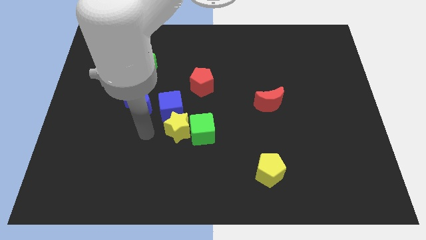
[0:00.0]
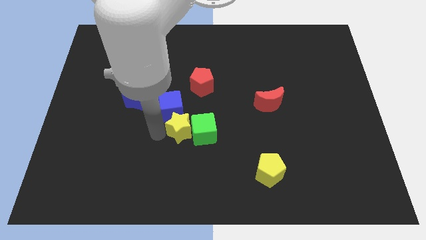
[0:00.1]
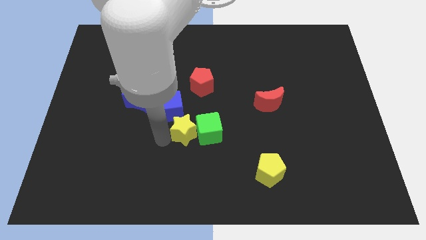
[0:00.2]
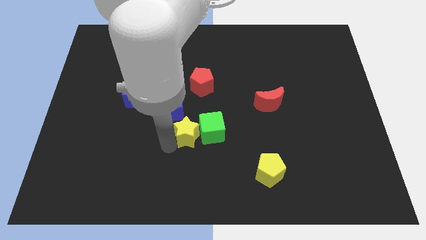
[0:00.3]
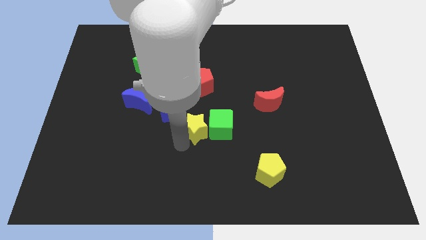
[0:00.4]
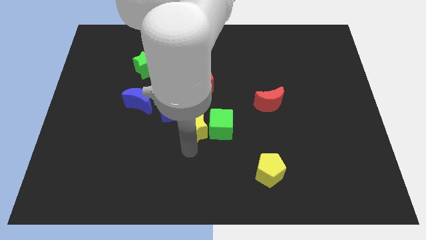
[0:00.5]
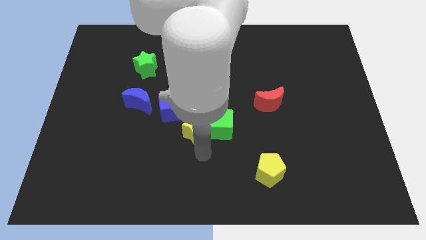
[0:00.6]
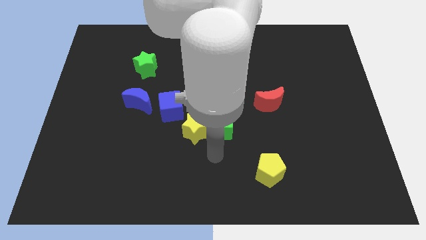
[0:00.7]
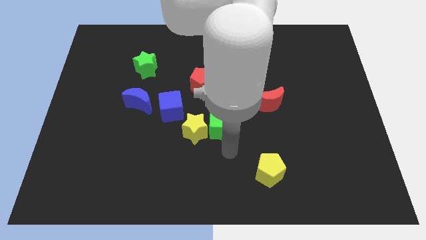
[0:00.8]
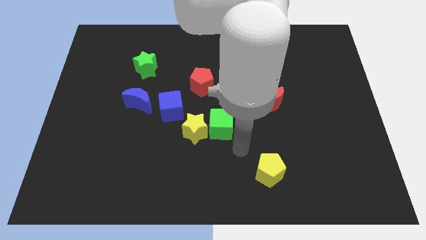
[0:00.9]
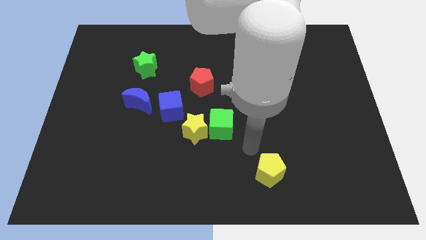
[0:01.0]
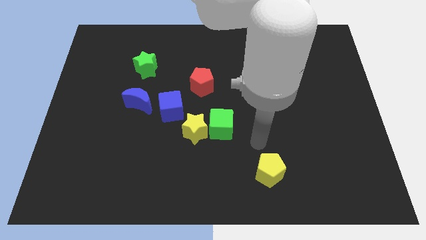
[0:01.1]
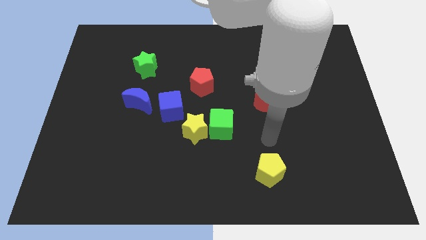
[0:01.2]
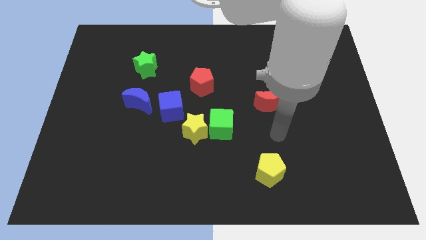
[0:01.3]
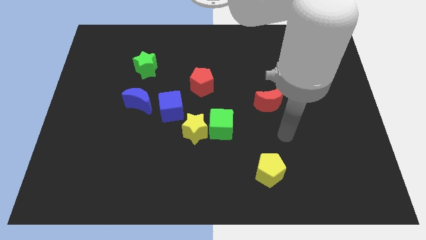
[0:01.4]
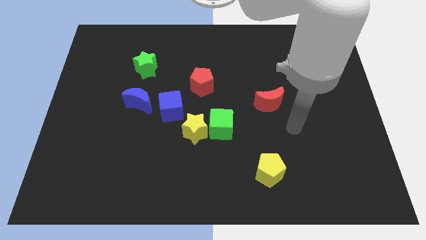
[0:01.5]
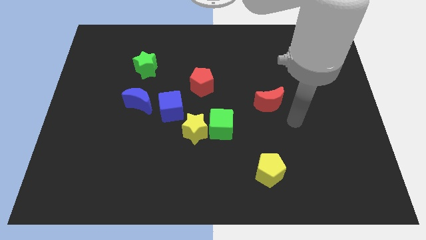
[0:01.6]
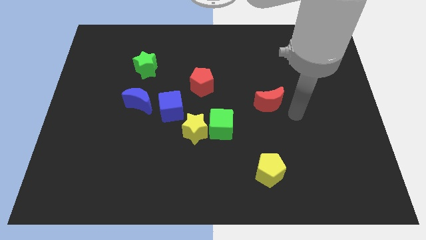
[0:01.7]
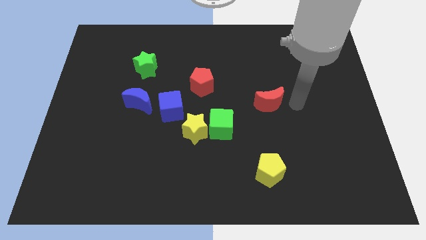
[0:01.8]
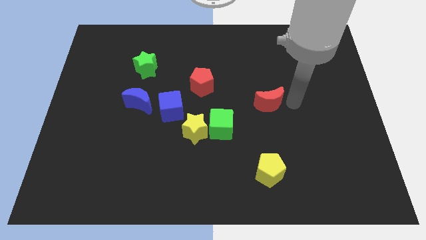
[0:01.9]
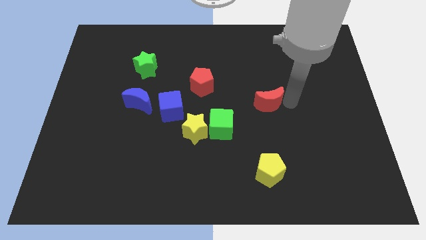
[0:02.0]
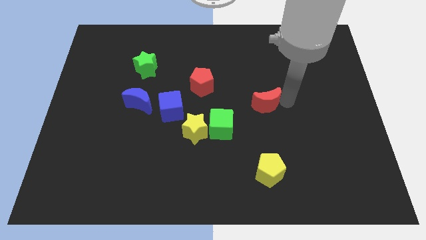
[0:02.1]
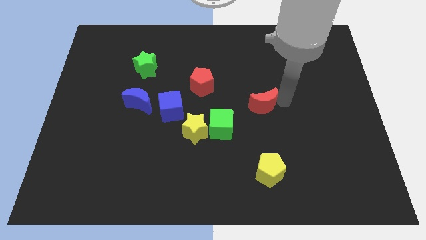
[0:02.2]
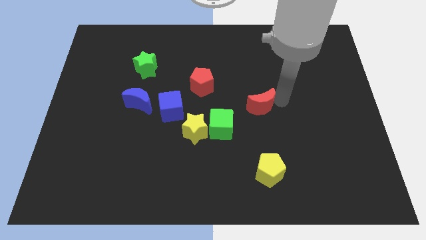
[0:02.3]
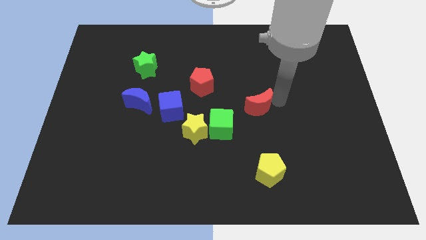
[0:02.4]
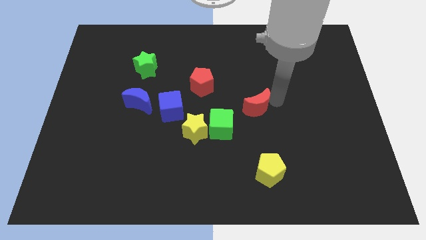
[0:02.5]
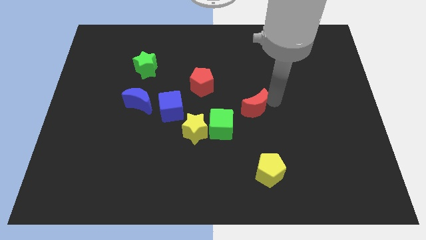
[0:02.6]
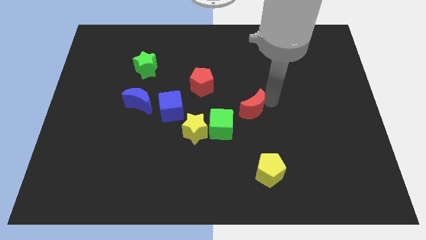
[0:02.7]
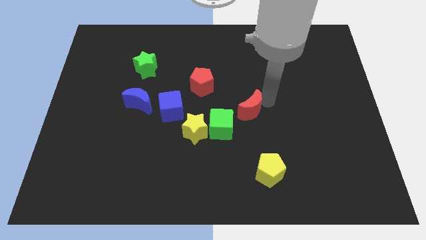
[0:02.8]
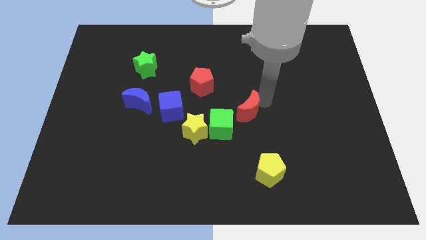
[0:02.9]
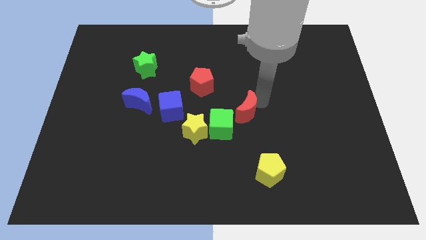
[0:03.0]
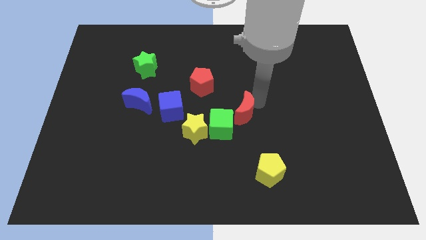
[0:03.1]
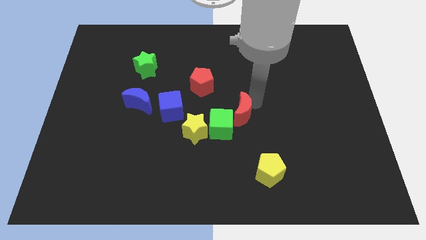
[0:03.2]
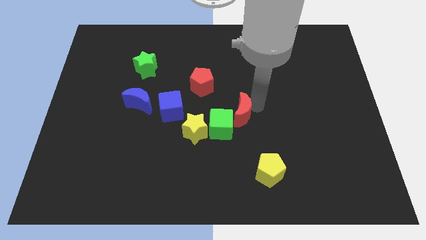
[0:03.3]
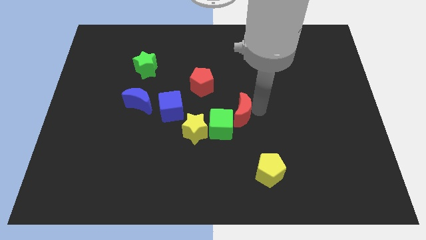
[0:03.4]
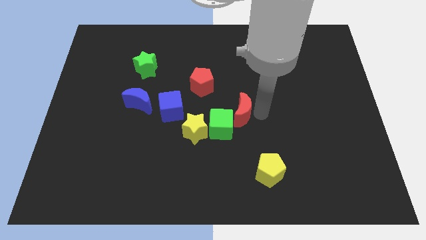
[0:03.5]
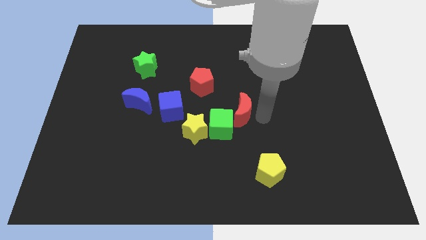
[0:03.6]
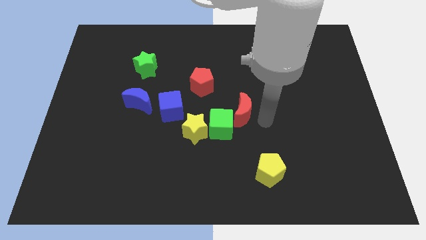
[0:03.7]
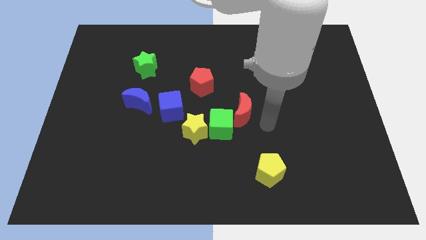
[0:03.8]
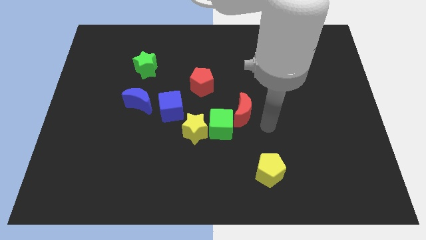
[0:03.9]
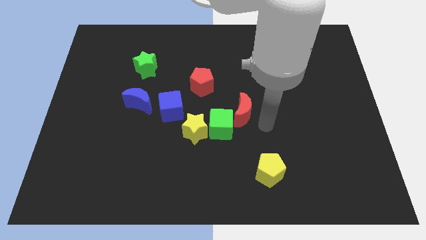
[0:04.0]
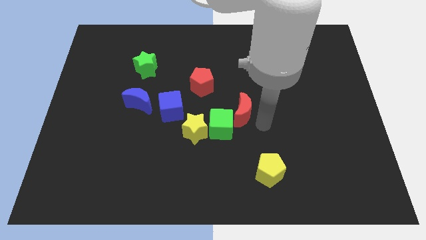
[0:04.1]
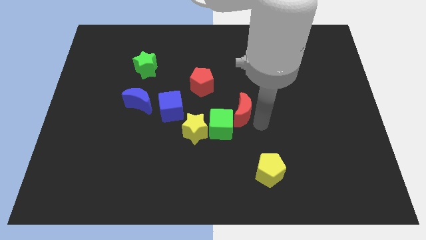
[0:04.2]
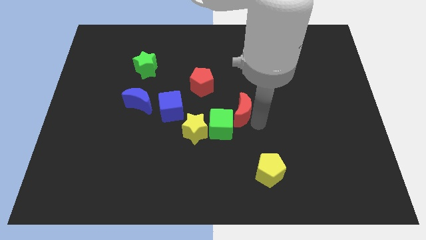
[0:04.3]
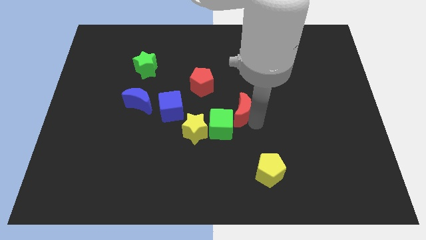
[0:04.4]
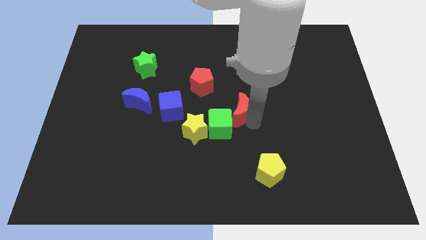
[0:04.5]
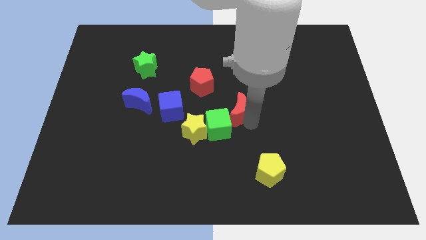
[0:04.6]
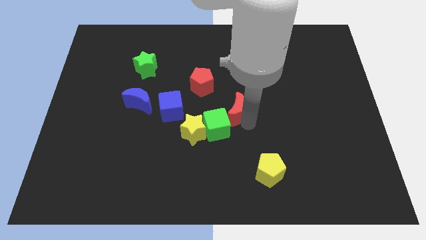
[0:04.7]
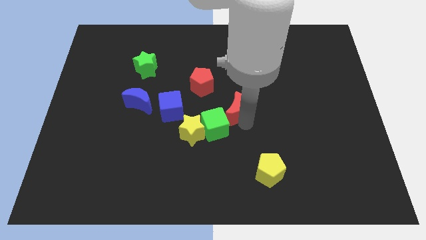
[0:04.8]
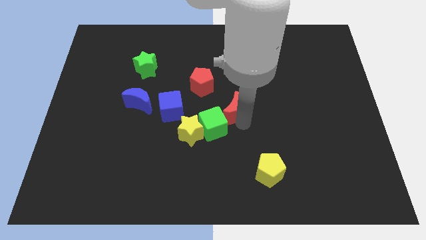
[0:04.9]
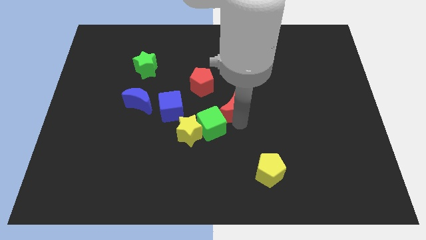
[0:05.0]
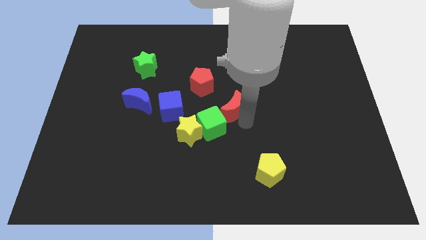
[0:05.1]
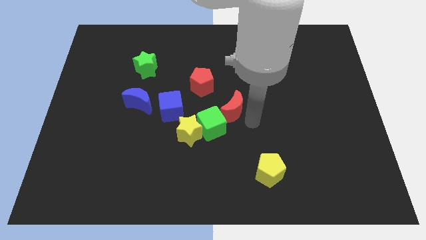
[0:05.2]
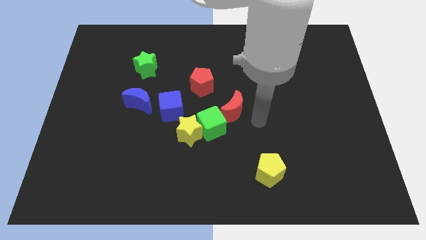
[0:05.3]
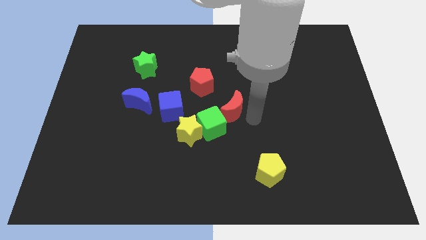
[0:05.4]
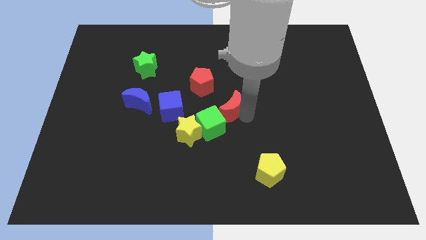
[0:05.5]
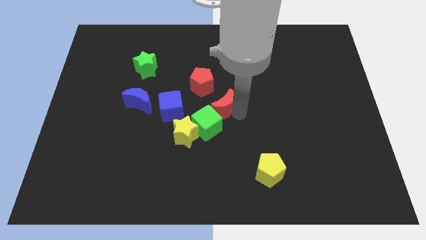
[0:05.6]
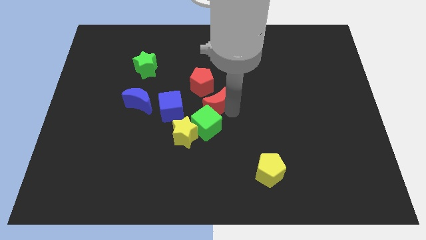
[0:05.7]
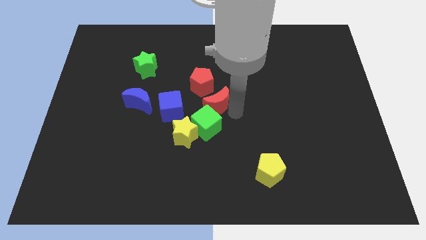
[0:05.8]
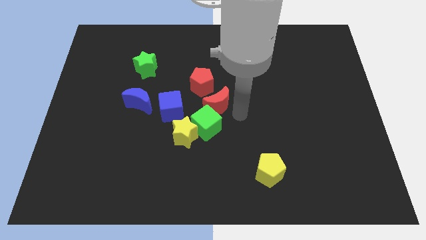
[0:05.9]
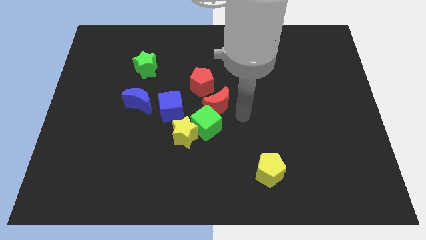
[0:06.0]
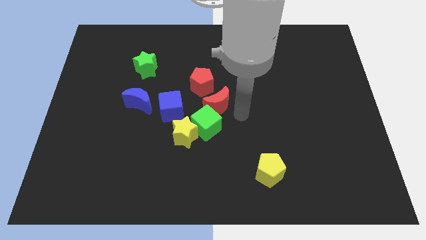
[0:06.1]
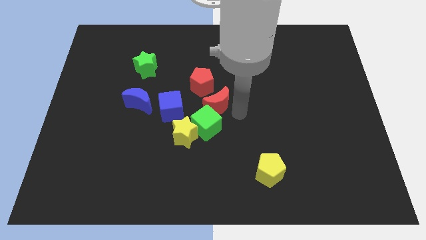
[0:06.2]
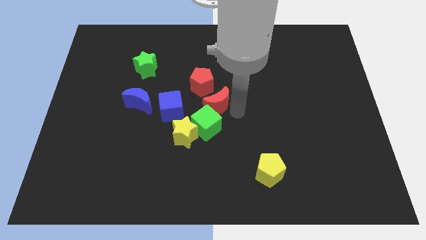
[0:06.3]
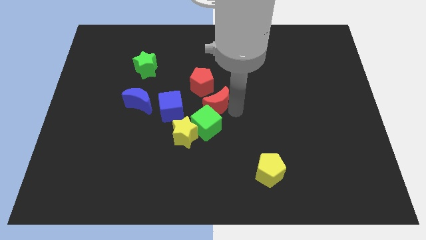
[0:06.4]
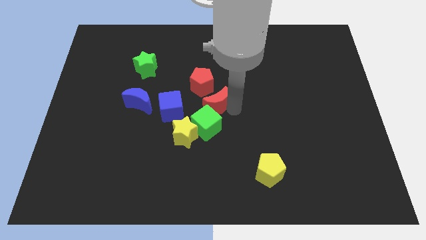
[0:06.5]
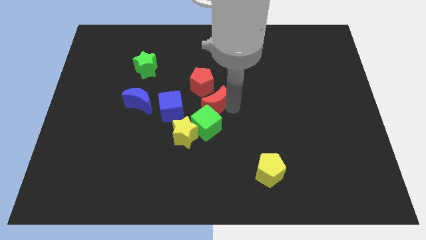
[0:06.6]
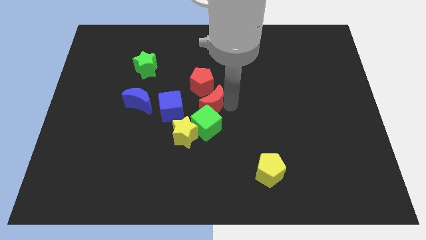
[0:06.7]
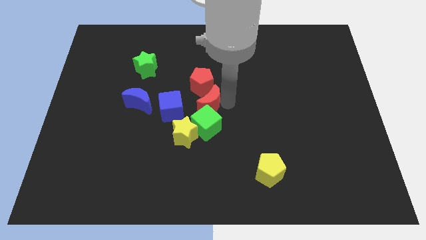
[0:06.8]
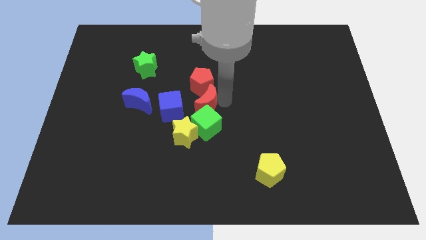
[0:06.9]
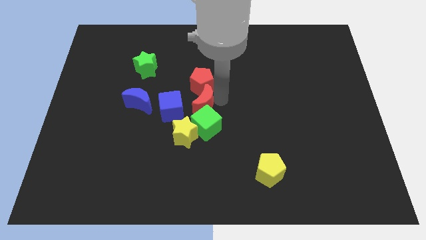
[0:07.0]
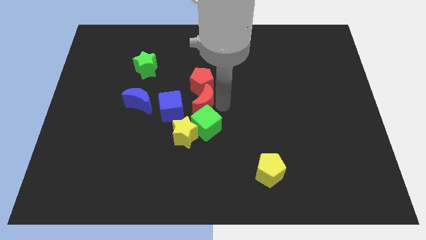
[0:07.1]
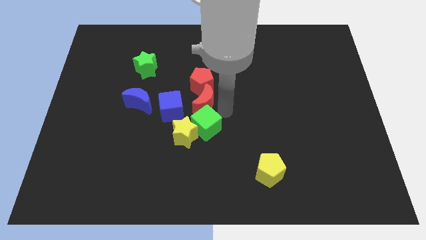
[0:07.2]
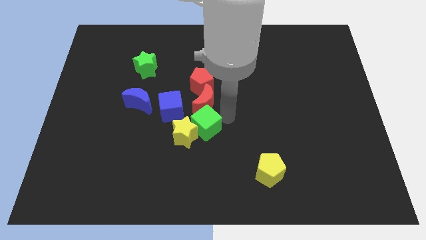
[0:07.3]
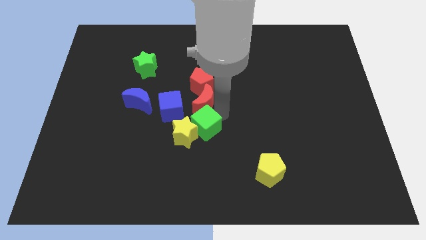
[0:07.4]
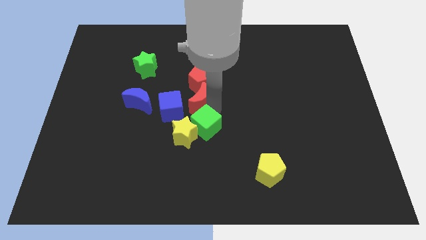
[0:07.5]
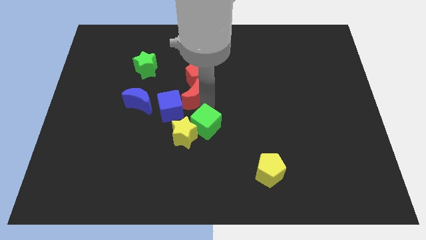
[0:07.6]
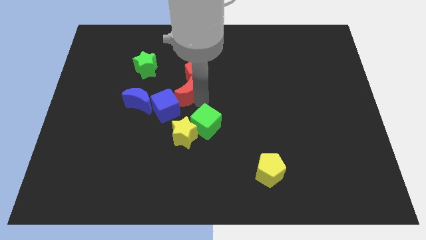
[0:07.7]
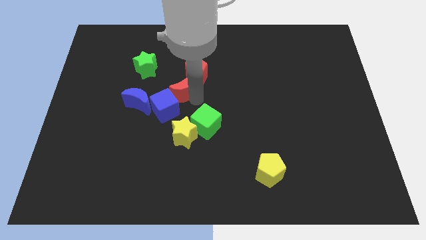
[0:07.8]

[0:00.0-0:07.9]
put the red moon to the top of the blue cube

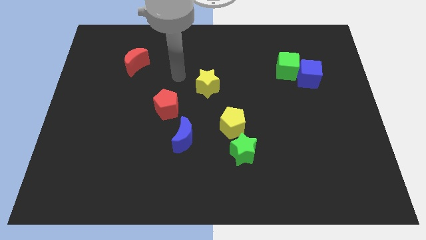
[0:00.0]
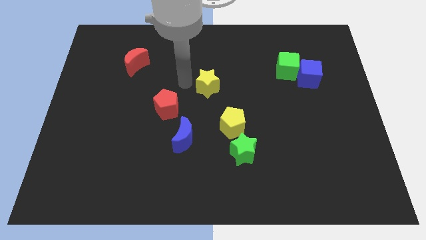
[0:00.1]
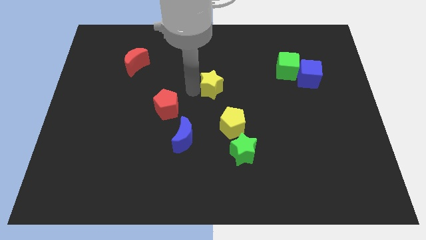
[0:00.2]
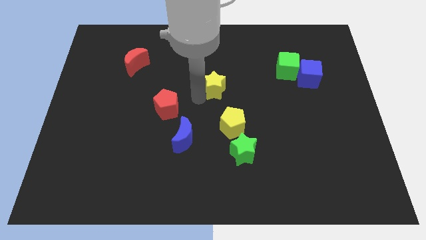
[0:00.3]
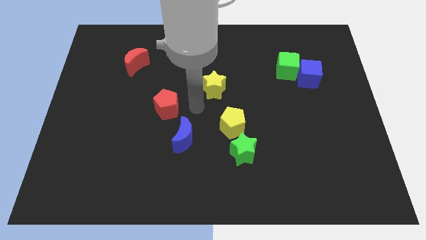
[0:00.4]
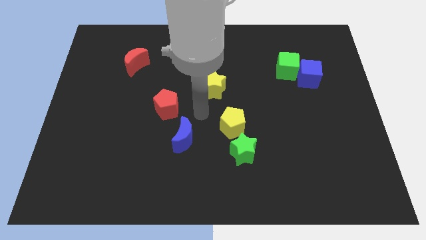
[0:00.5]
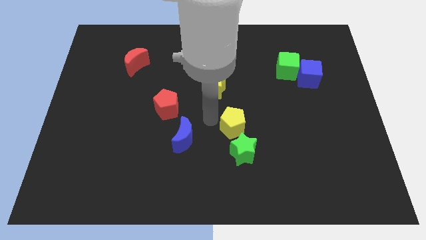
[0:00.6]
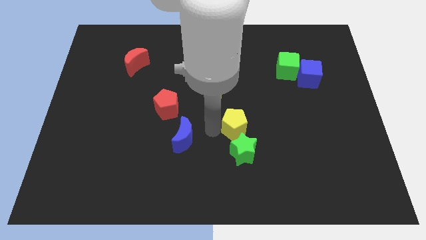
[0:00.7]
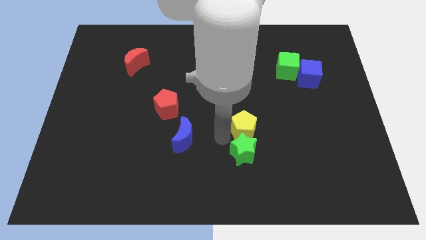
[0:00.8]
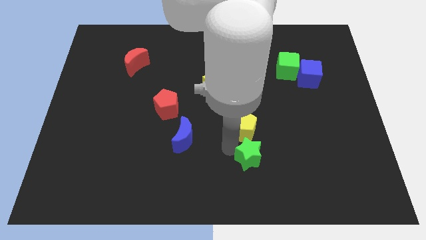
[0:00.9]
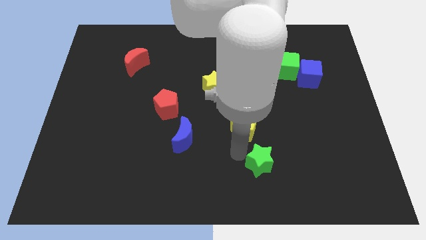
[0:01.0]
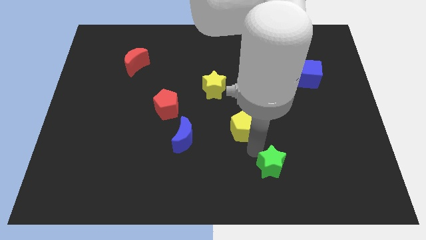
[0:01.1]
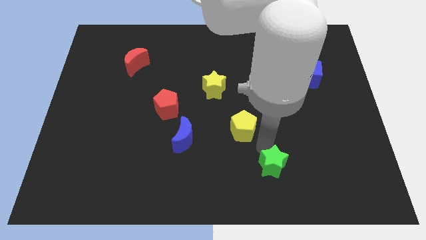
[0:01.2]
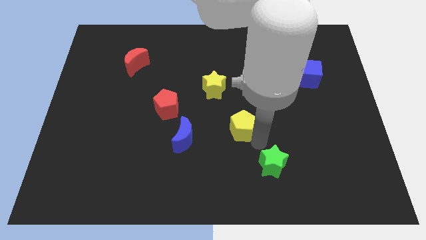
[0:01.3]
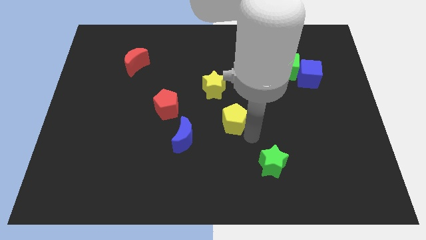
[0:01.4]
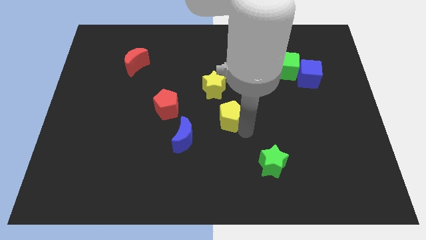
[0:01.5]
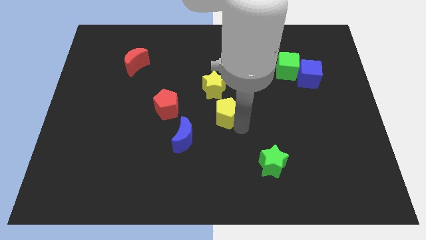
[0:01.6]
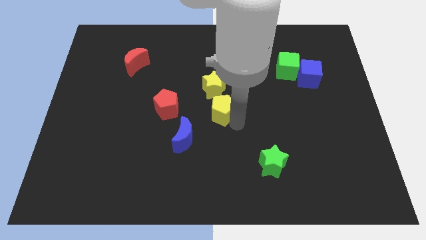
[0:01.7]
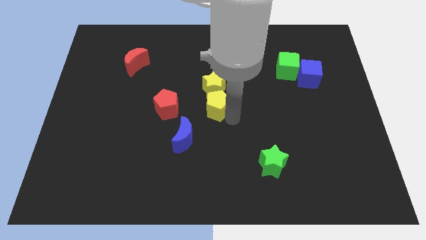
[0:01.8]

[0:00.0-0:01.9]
move the yellow pentagon to the bottom left of the yellow star
